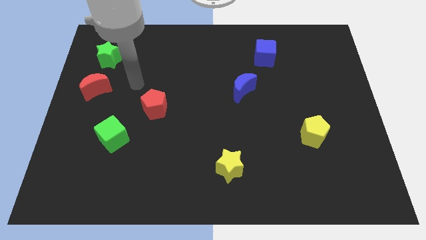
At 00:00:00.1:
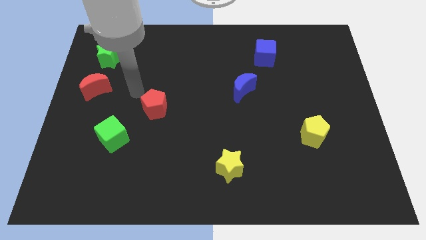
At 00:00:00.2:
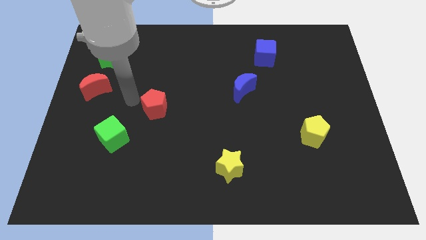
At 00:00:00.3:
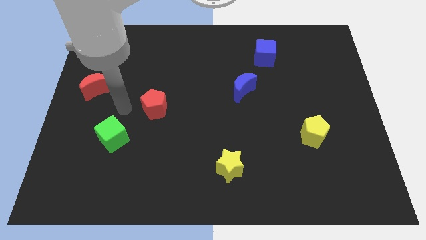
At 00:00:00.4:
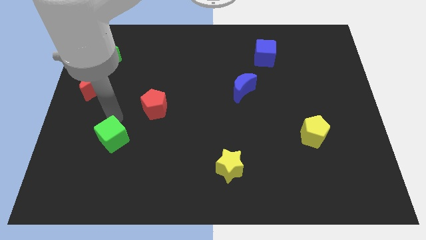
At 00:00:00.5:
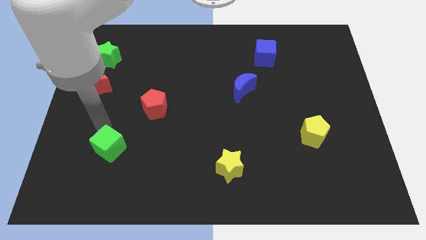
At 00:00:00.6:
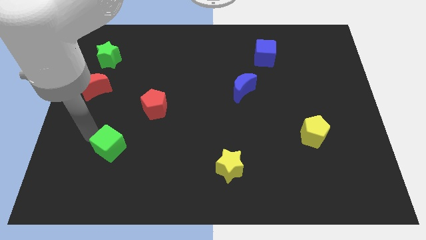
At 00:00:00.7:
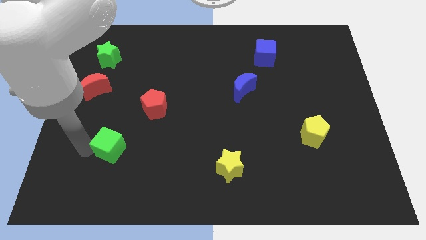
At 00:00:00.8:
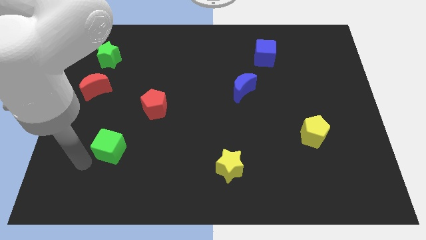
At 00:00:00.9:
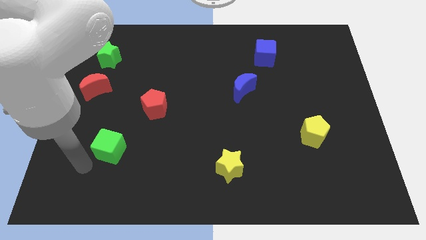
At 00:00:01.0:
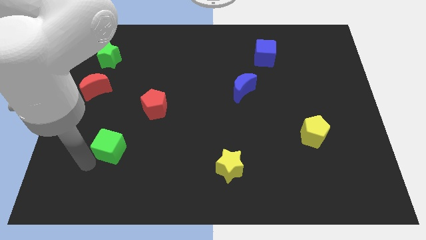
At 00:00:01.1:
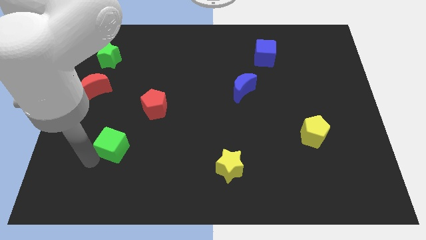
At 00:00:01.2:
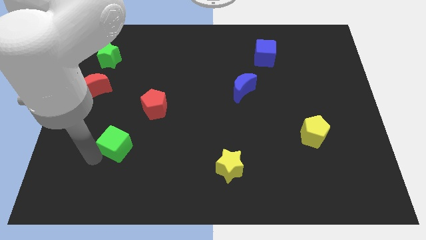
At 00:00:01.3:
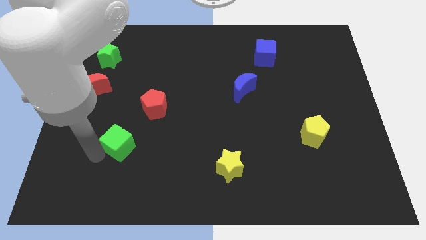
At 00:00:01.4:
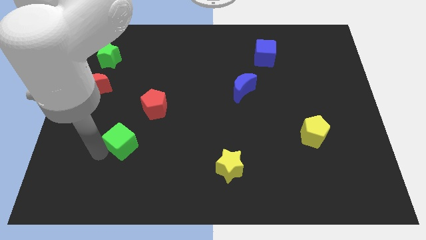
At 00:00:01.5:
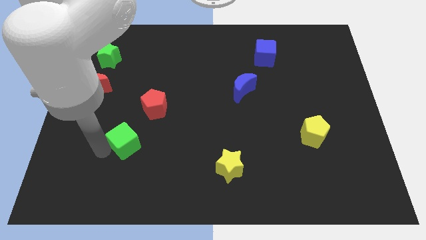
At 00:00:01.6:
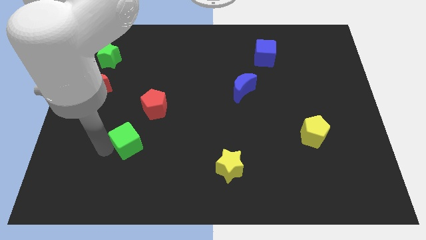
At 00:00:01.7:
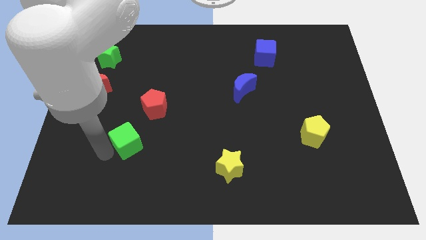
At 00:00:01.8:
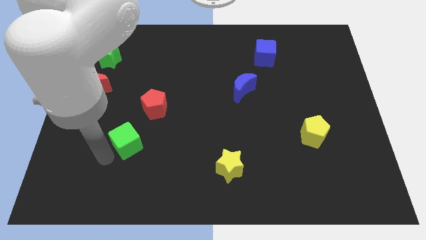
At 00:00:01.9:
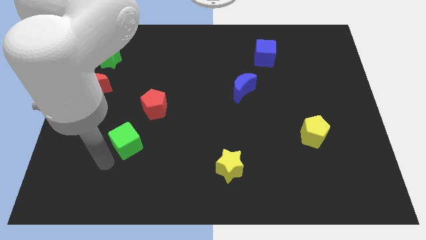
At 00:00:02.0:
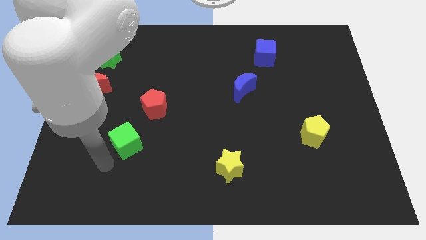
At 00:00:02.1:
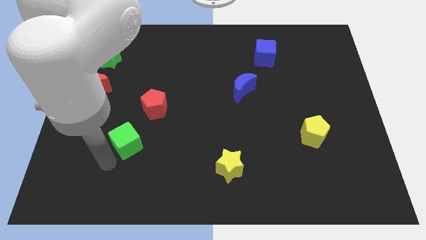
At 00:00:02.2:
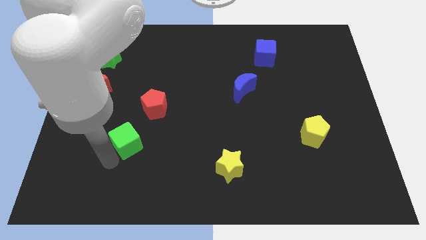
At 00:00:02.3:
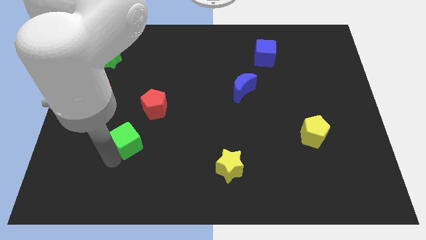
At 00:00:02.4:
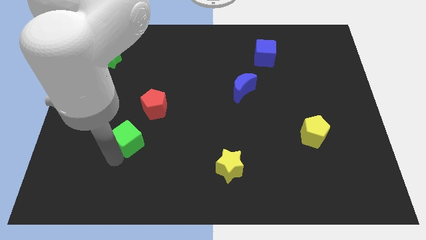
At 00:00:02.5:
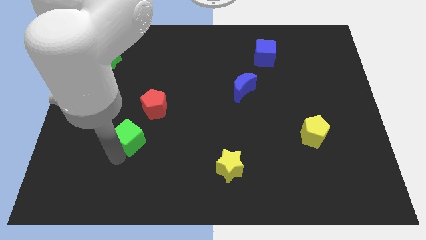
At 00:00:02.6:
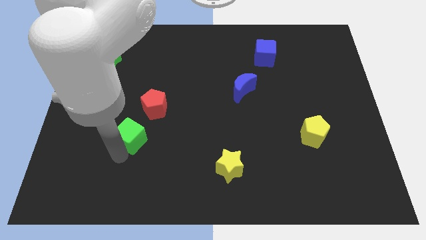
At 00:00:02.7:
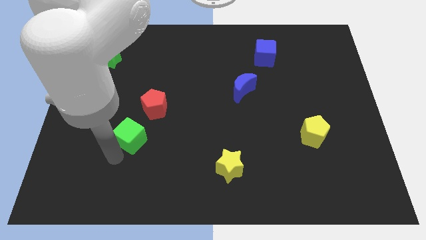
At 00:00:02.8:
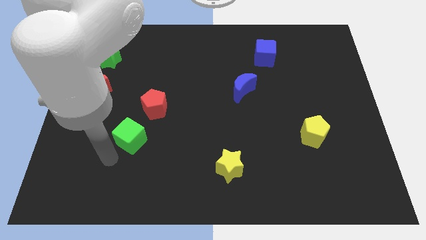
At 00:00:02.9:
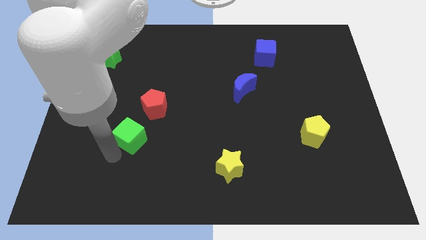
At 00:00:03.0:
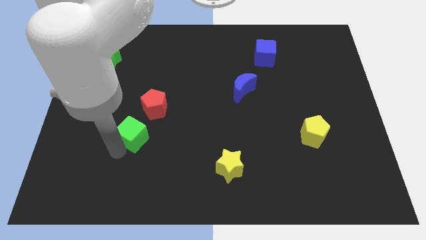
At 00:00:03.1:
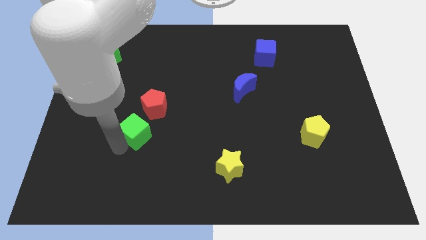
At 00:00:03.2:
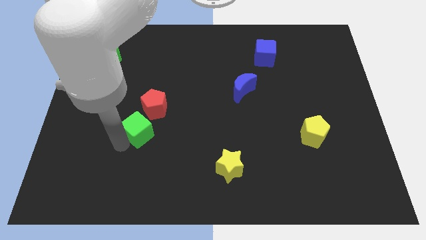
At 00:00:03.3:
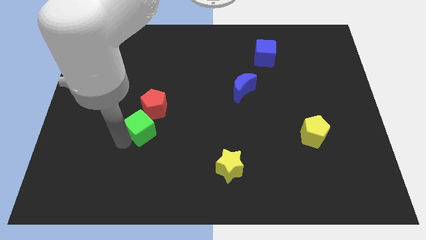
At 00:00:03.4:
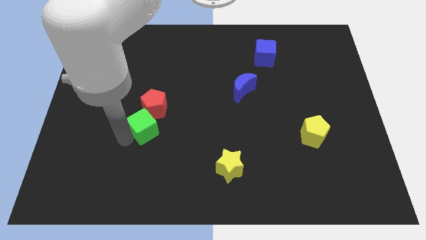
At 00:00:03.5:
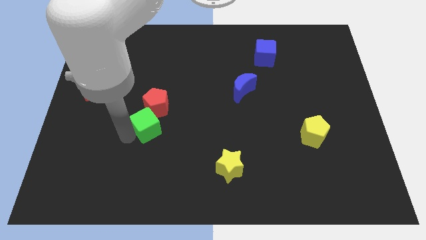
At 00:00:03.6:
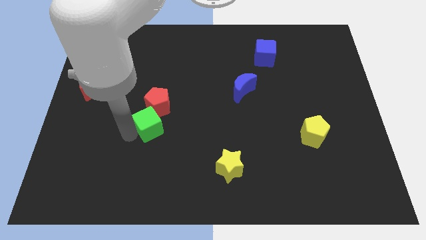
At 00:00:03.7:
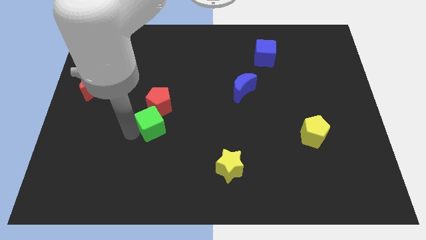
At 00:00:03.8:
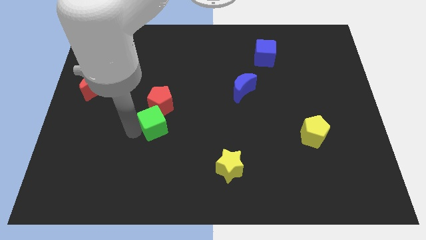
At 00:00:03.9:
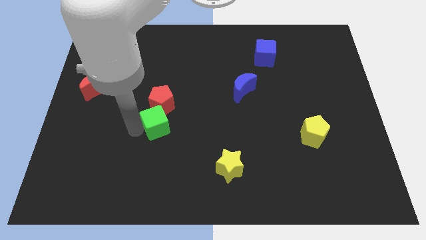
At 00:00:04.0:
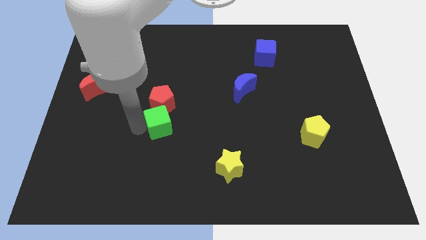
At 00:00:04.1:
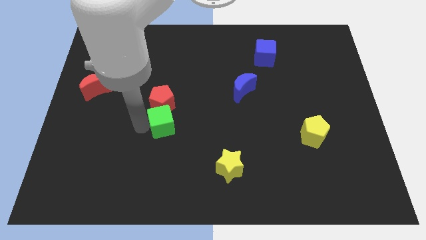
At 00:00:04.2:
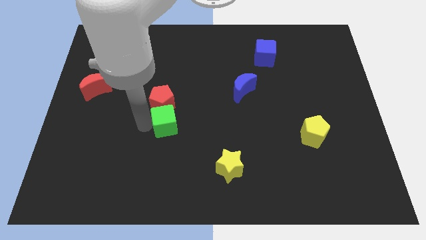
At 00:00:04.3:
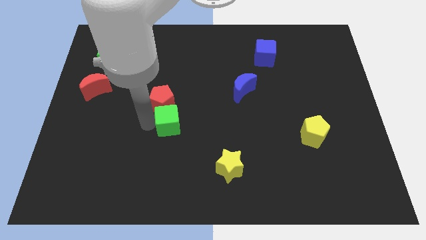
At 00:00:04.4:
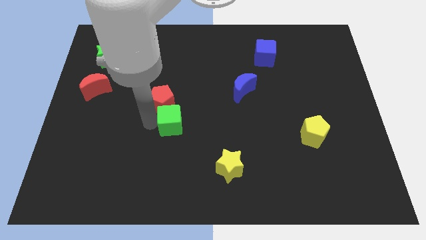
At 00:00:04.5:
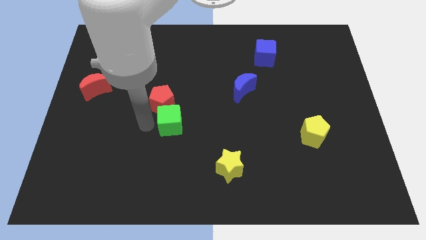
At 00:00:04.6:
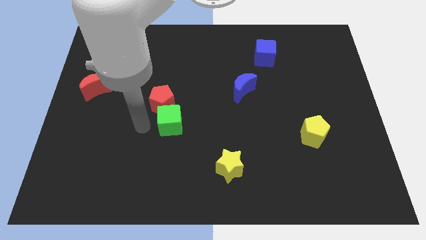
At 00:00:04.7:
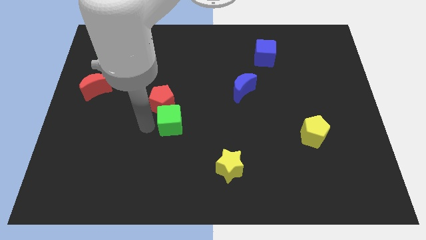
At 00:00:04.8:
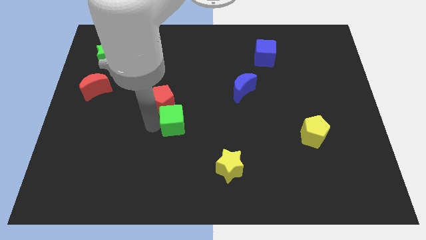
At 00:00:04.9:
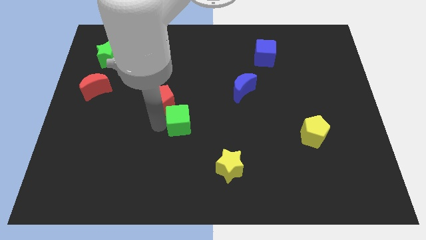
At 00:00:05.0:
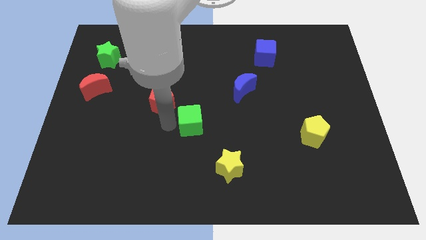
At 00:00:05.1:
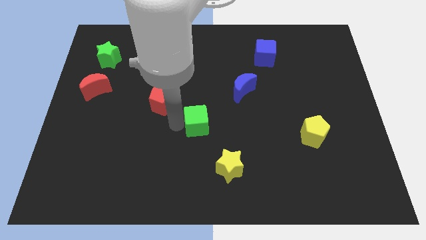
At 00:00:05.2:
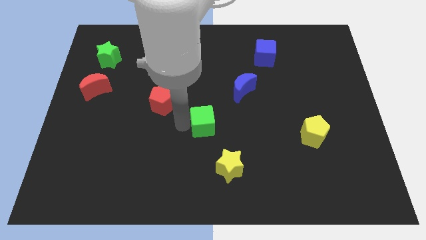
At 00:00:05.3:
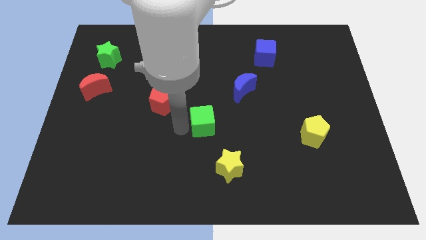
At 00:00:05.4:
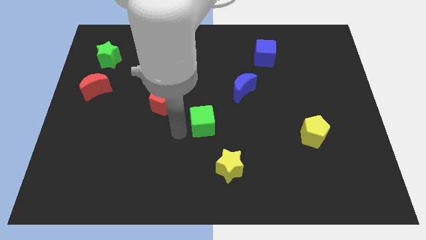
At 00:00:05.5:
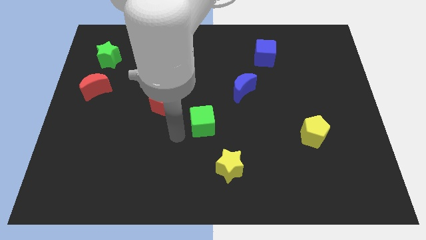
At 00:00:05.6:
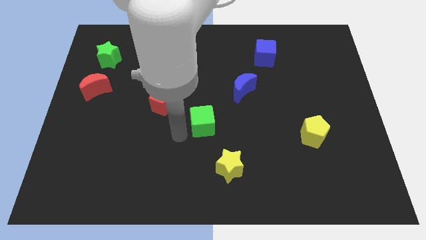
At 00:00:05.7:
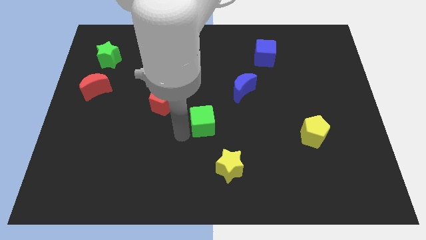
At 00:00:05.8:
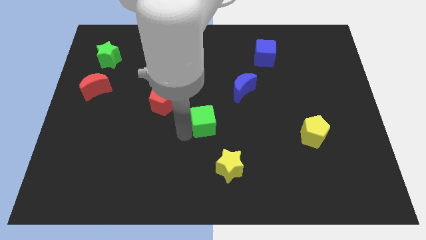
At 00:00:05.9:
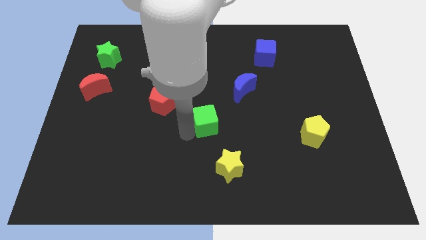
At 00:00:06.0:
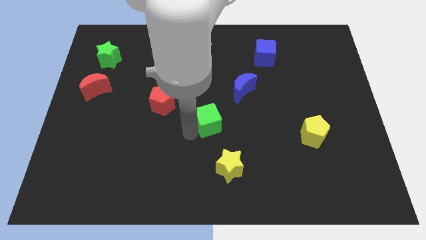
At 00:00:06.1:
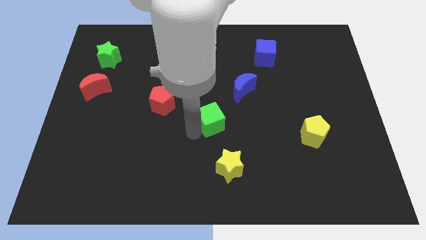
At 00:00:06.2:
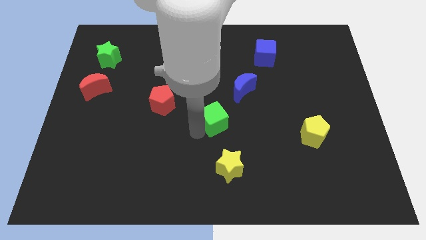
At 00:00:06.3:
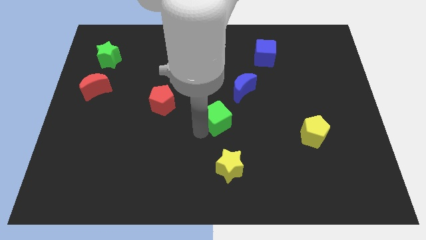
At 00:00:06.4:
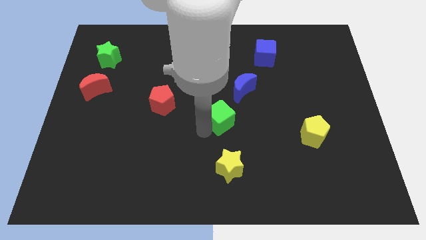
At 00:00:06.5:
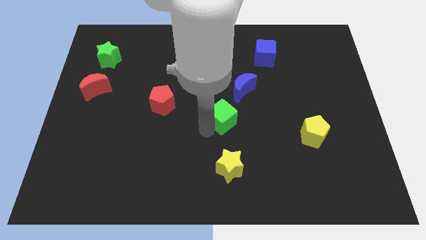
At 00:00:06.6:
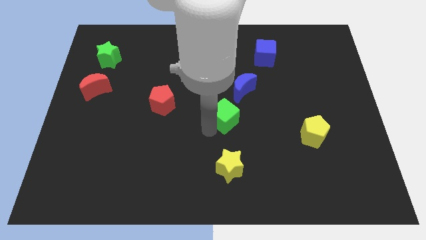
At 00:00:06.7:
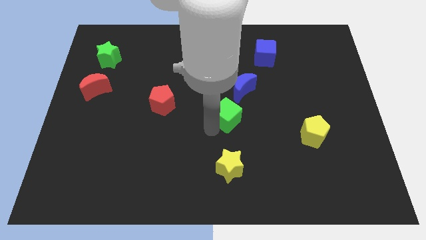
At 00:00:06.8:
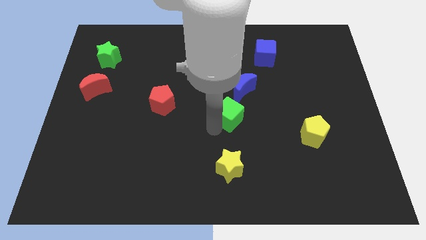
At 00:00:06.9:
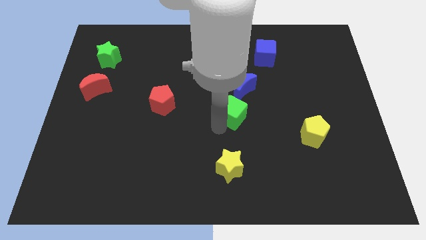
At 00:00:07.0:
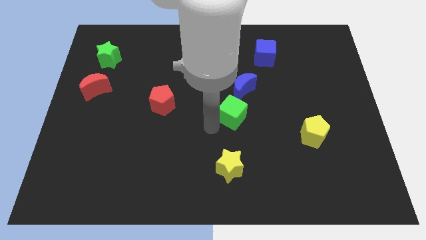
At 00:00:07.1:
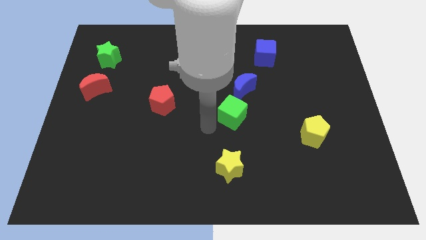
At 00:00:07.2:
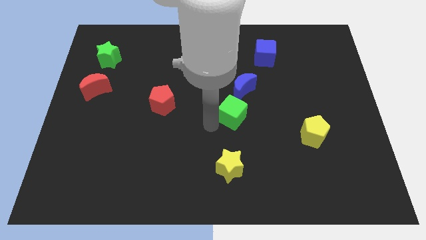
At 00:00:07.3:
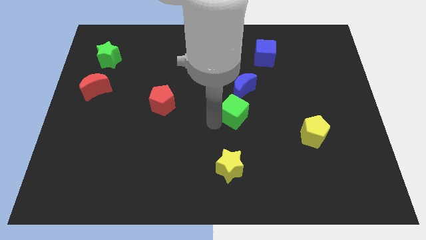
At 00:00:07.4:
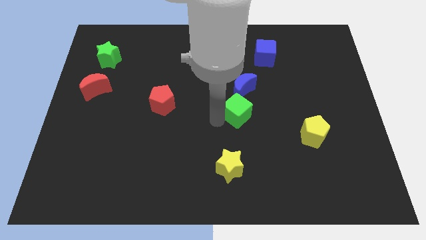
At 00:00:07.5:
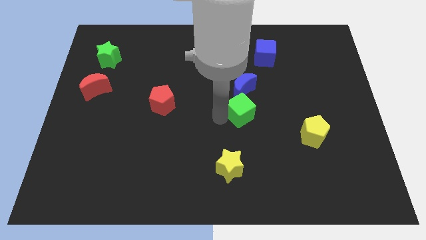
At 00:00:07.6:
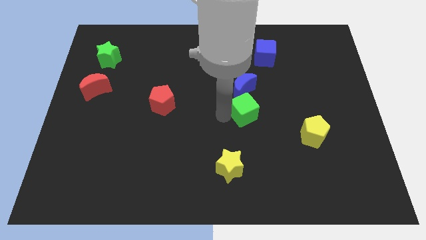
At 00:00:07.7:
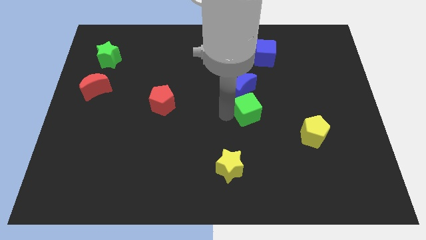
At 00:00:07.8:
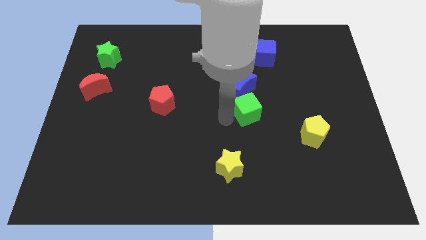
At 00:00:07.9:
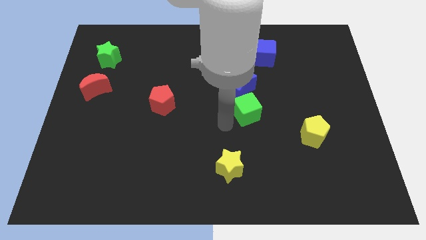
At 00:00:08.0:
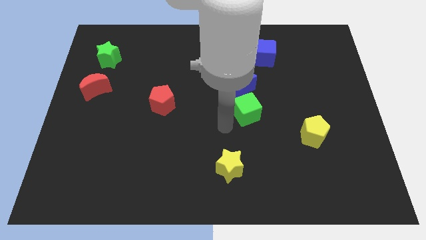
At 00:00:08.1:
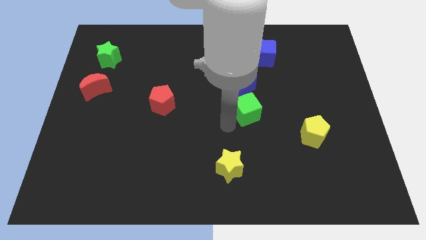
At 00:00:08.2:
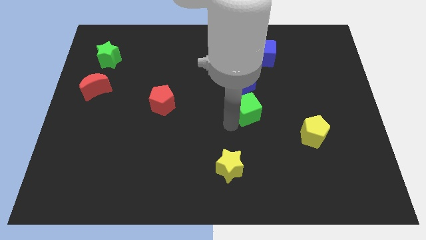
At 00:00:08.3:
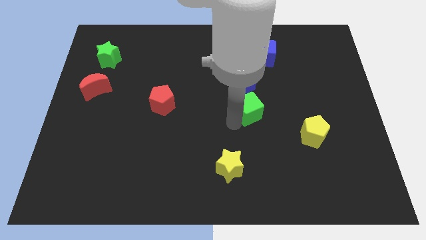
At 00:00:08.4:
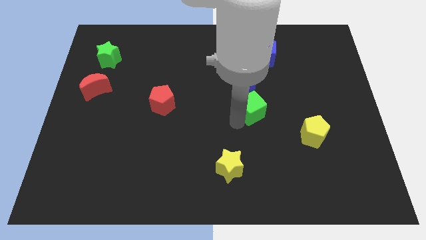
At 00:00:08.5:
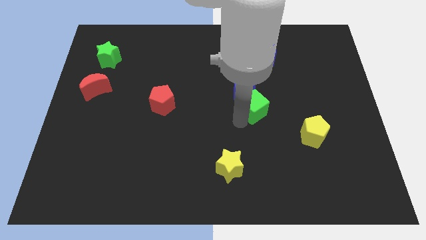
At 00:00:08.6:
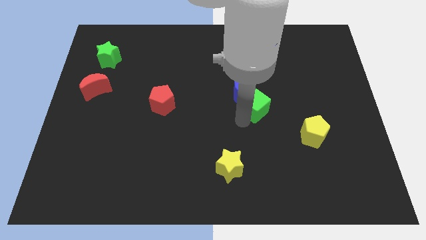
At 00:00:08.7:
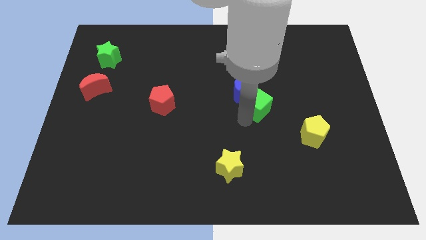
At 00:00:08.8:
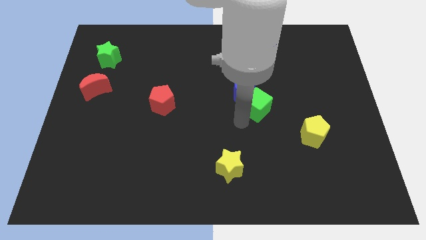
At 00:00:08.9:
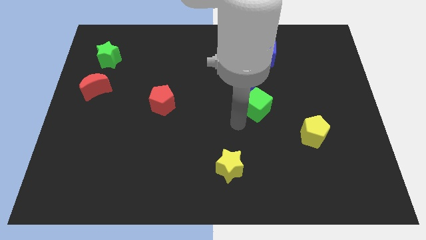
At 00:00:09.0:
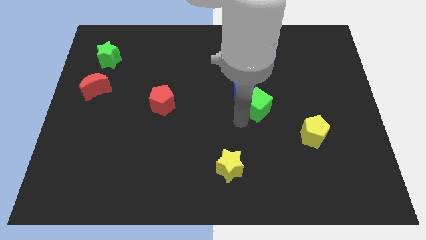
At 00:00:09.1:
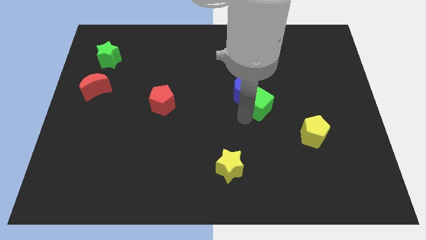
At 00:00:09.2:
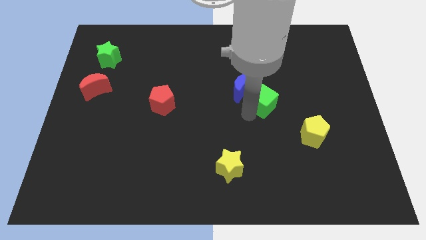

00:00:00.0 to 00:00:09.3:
move the green cube just right of the blue moon
